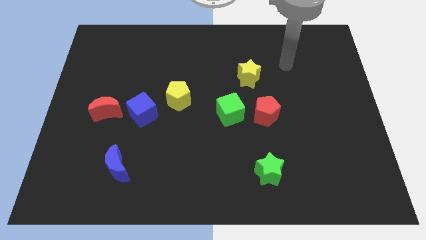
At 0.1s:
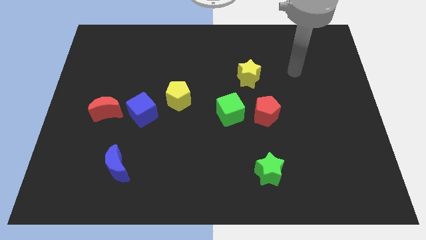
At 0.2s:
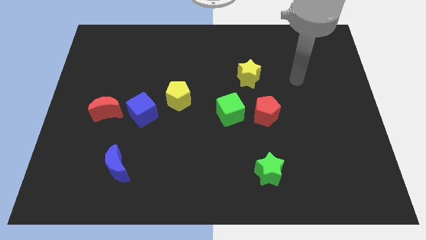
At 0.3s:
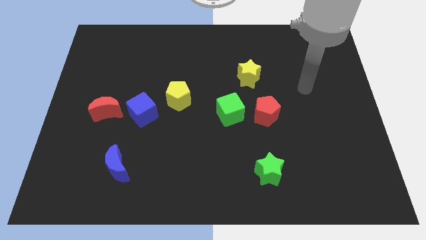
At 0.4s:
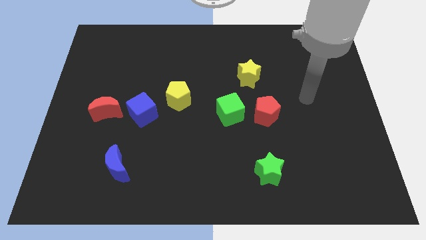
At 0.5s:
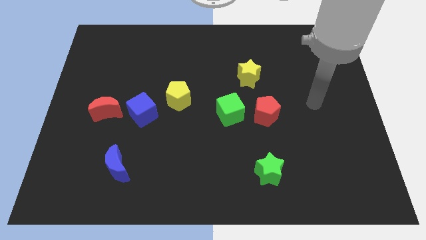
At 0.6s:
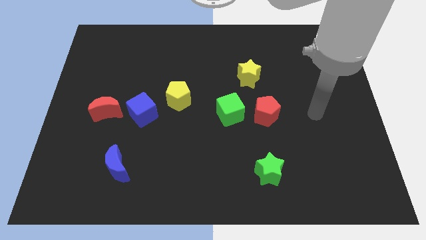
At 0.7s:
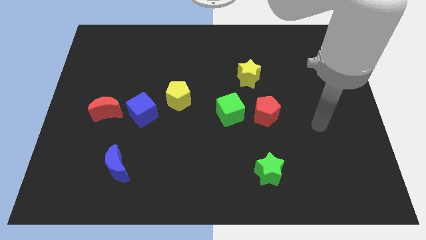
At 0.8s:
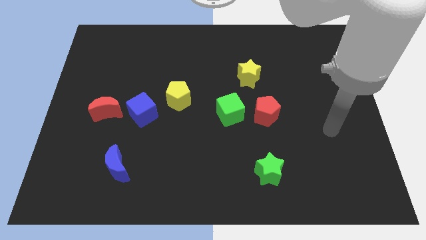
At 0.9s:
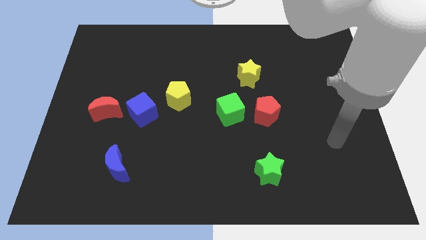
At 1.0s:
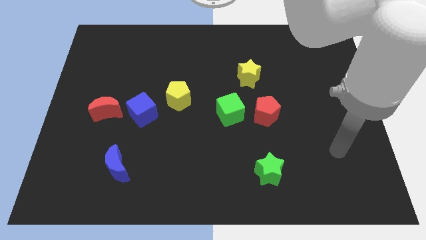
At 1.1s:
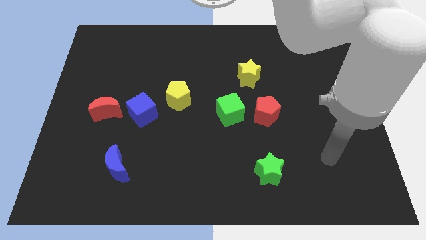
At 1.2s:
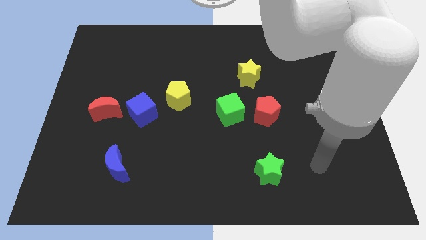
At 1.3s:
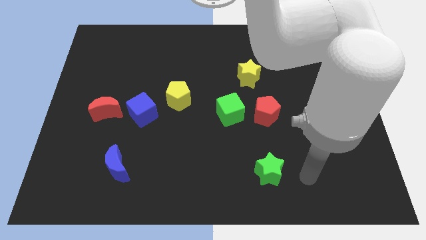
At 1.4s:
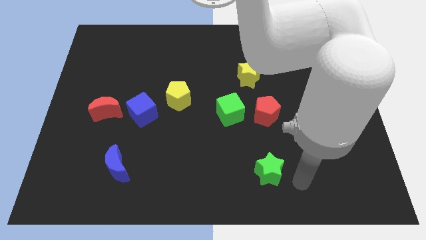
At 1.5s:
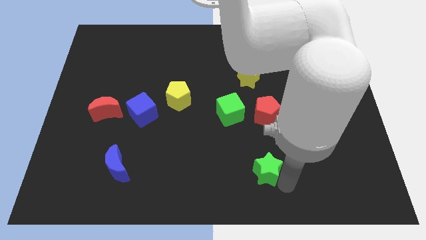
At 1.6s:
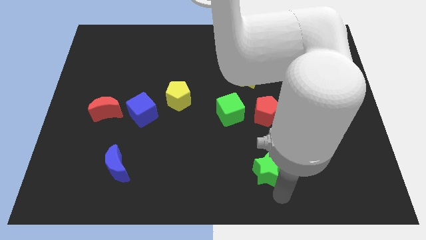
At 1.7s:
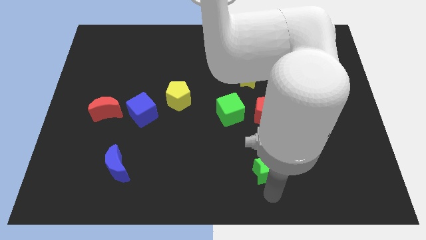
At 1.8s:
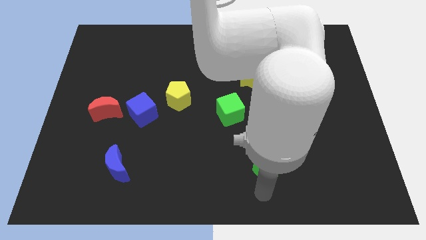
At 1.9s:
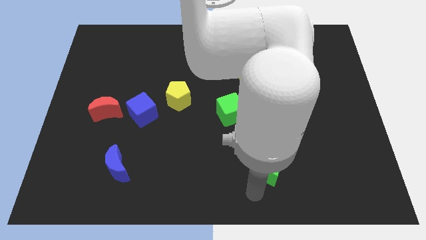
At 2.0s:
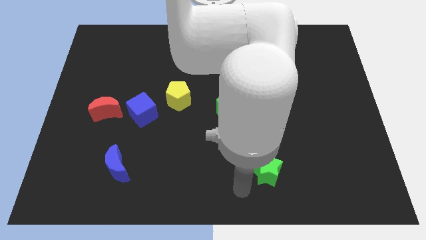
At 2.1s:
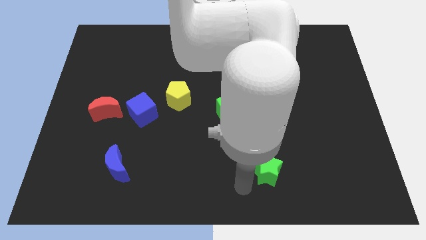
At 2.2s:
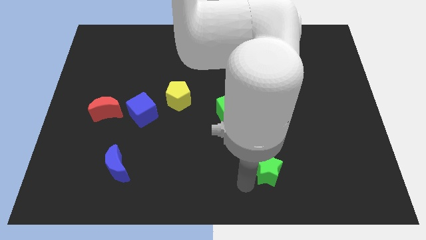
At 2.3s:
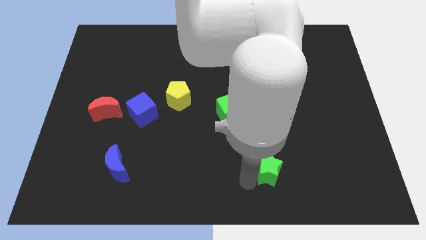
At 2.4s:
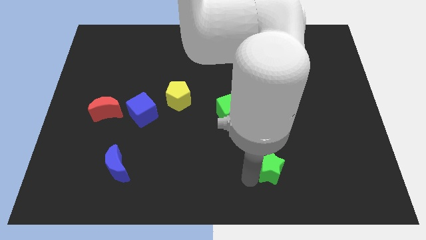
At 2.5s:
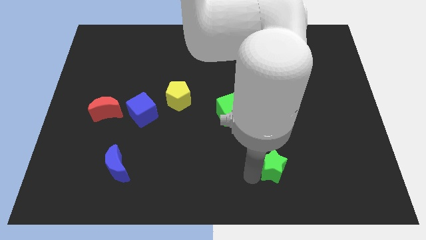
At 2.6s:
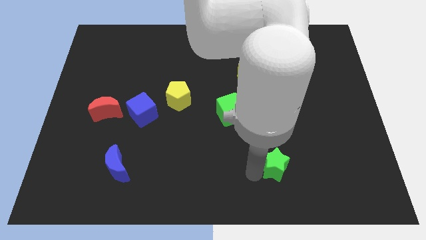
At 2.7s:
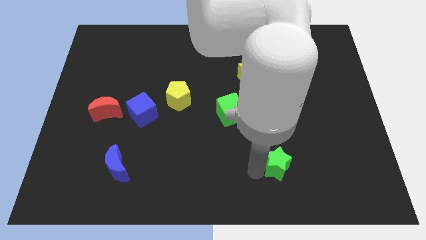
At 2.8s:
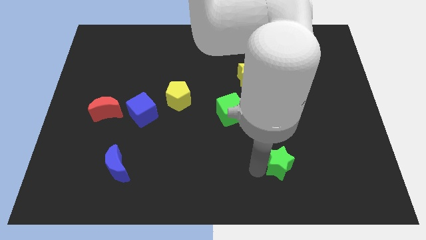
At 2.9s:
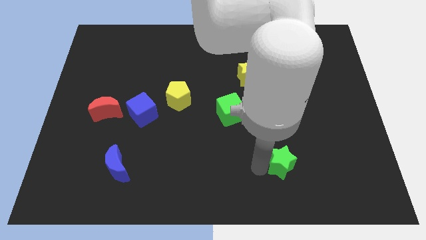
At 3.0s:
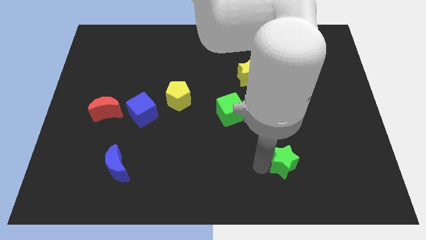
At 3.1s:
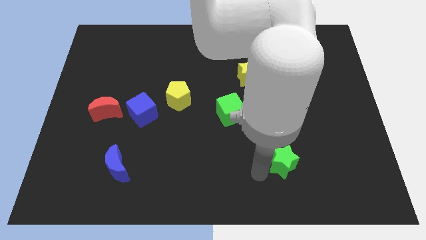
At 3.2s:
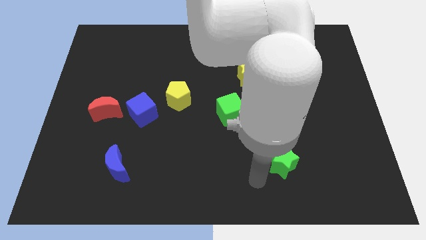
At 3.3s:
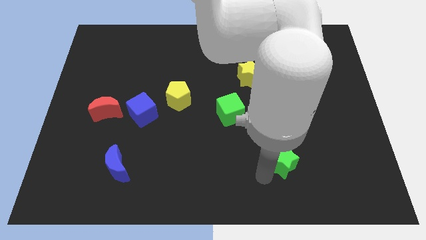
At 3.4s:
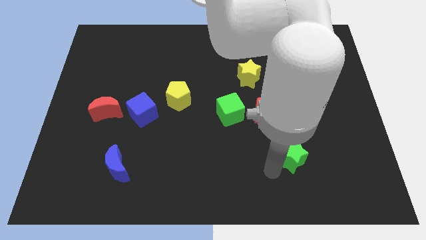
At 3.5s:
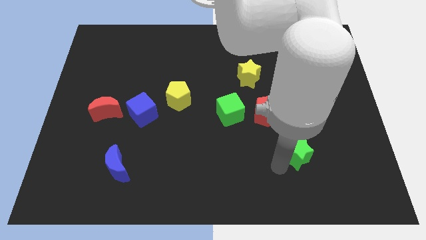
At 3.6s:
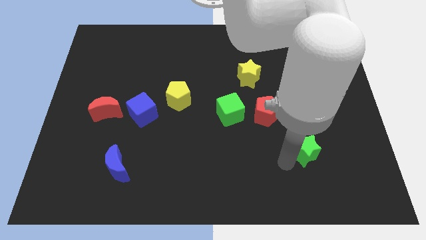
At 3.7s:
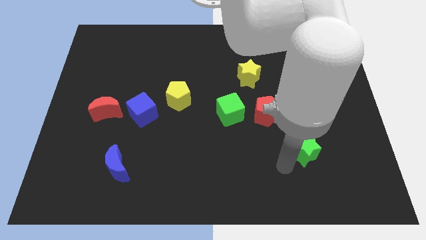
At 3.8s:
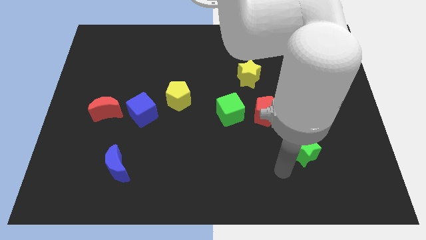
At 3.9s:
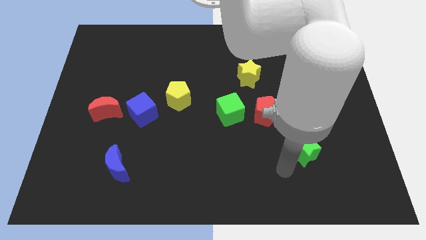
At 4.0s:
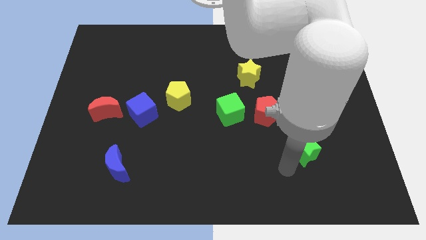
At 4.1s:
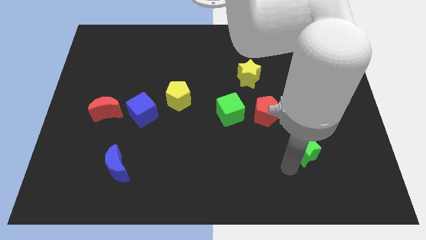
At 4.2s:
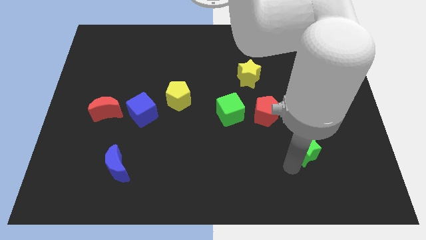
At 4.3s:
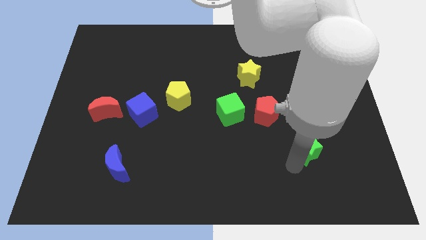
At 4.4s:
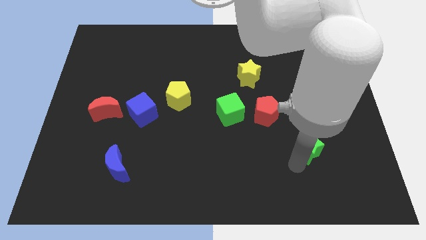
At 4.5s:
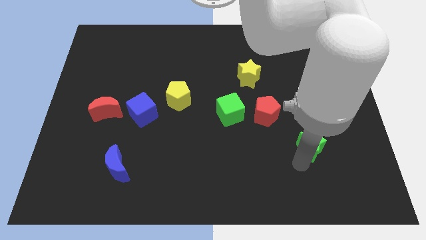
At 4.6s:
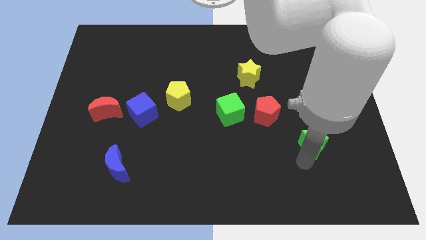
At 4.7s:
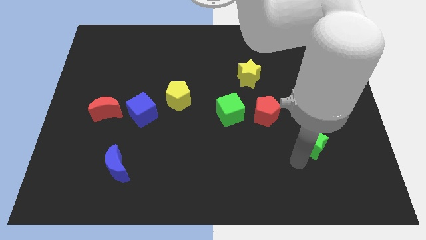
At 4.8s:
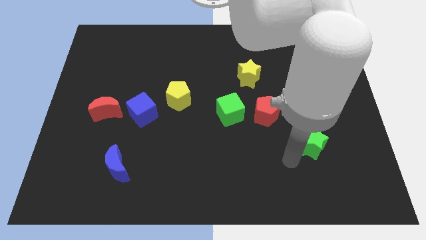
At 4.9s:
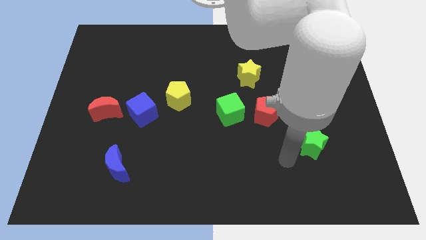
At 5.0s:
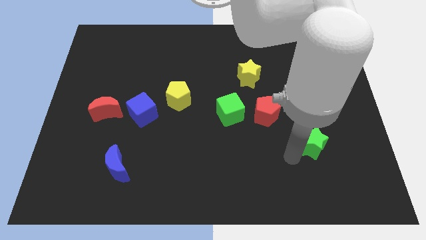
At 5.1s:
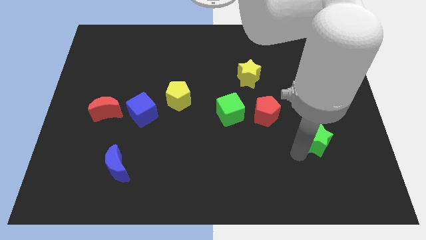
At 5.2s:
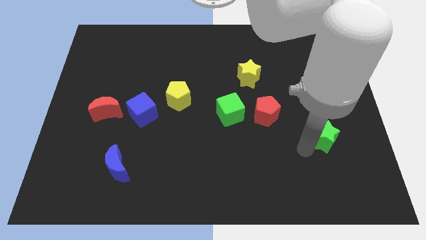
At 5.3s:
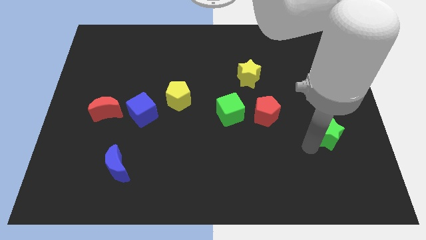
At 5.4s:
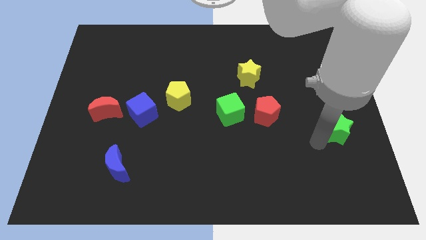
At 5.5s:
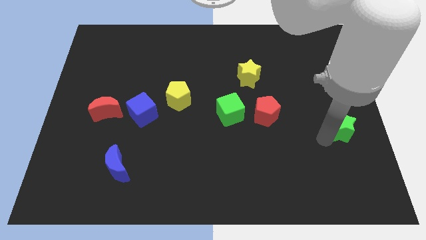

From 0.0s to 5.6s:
move the green star to the right side of the board

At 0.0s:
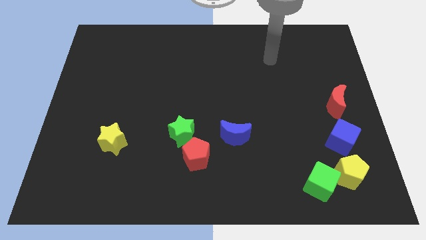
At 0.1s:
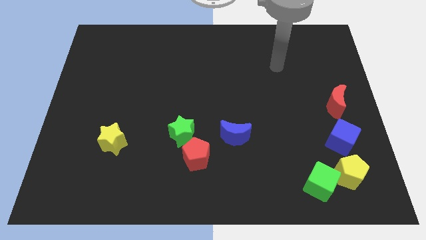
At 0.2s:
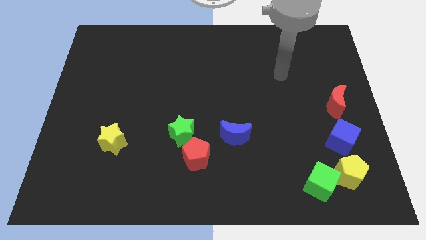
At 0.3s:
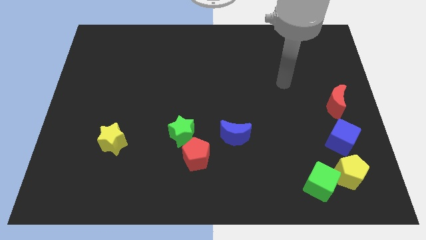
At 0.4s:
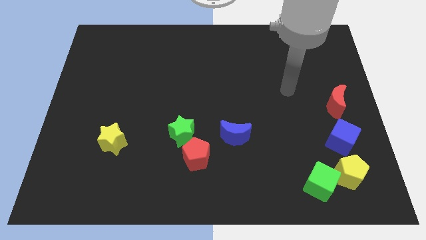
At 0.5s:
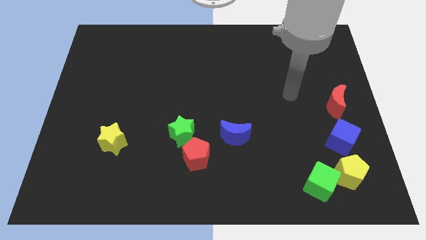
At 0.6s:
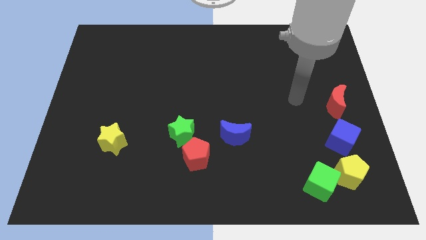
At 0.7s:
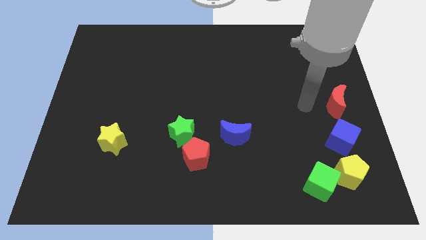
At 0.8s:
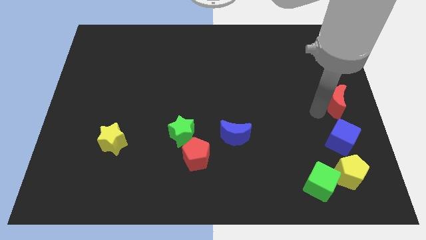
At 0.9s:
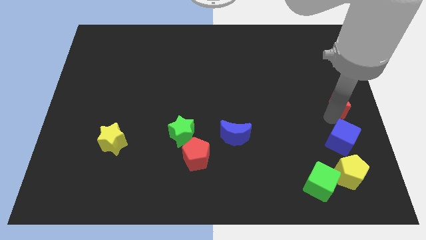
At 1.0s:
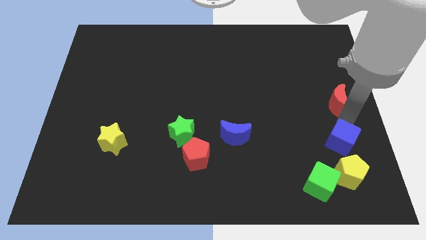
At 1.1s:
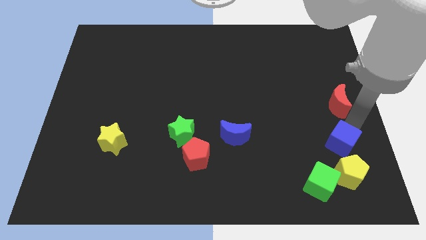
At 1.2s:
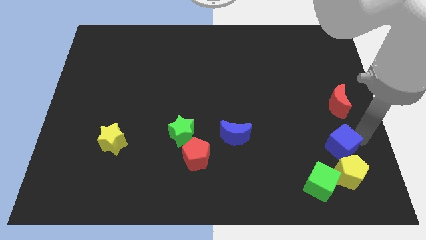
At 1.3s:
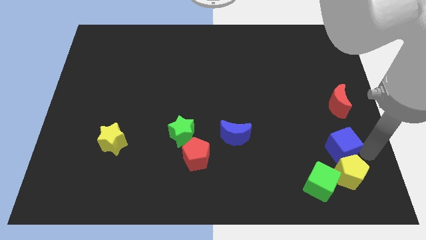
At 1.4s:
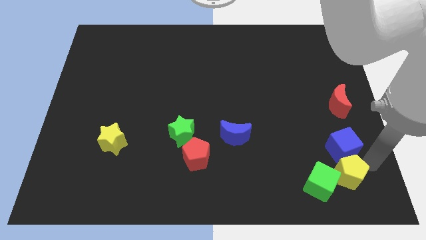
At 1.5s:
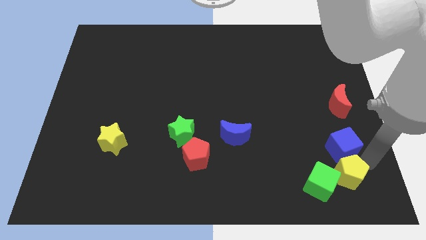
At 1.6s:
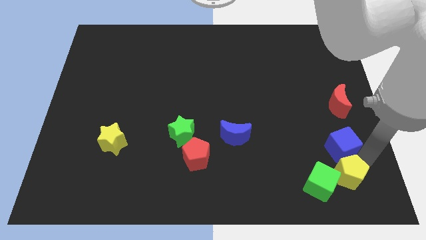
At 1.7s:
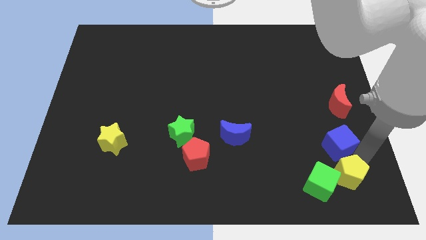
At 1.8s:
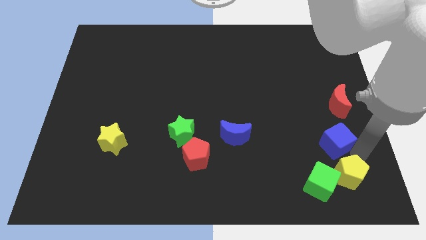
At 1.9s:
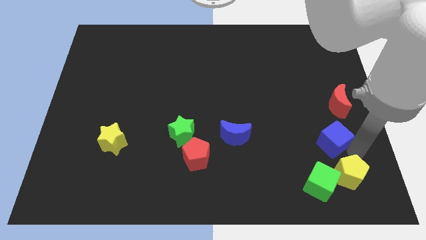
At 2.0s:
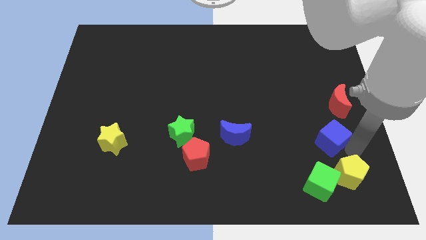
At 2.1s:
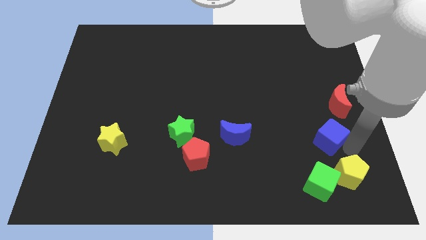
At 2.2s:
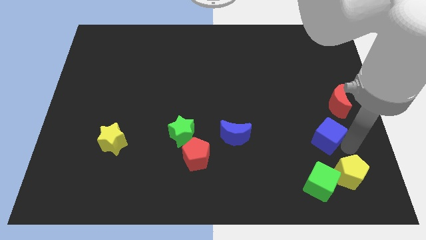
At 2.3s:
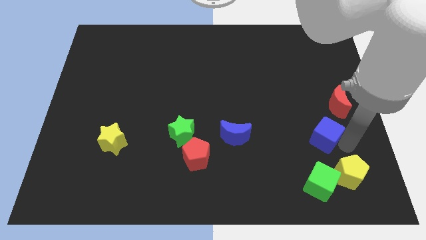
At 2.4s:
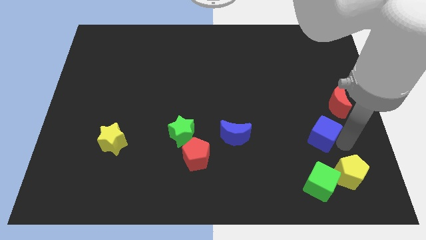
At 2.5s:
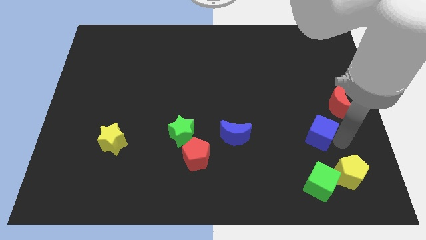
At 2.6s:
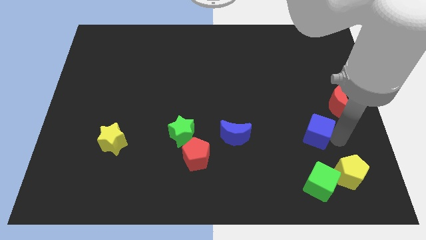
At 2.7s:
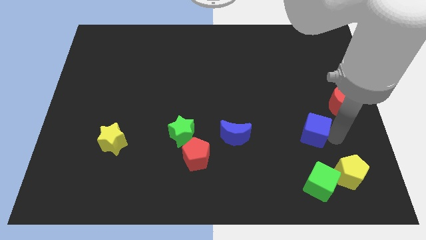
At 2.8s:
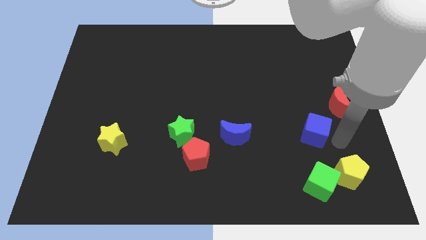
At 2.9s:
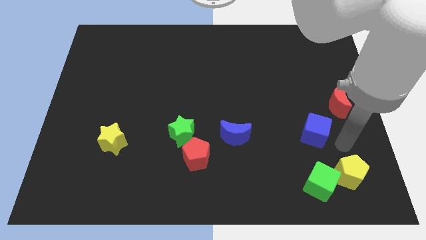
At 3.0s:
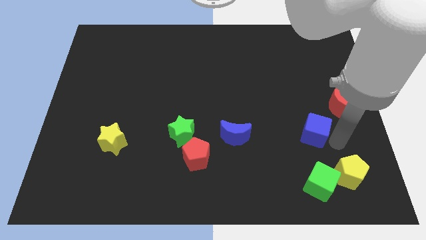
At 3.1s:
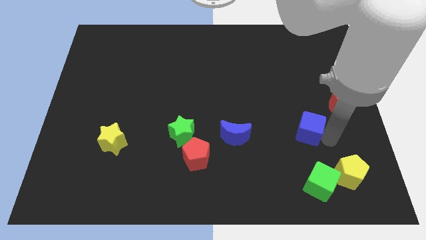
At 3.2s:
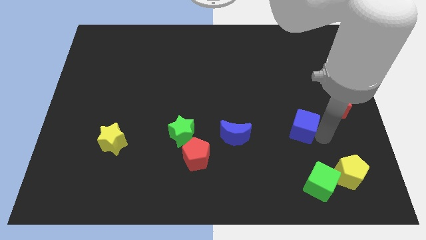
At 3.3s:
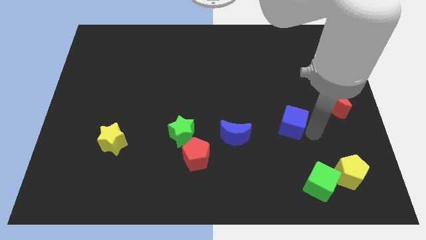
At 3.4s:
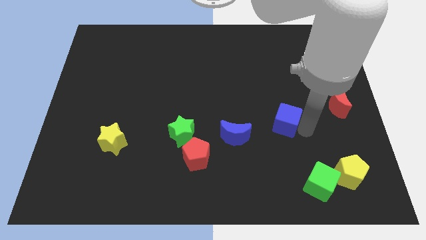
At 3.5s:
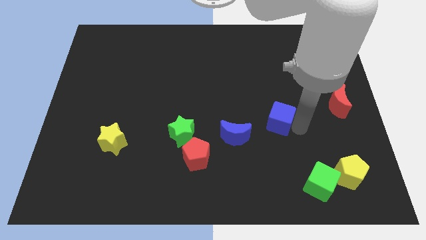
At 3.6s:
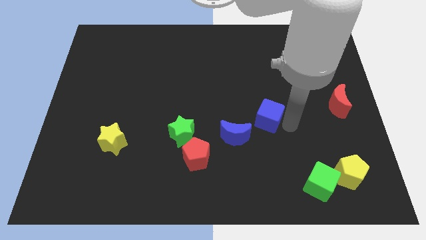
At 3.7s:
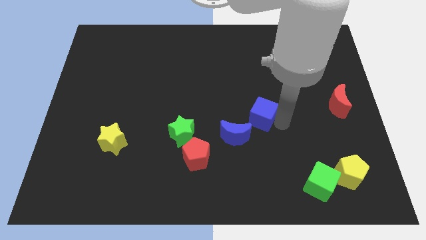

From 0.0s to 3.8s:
slide the blue cube to the middle
